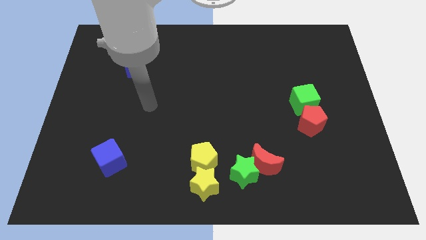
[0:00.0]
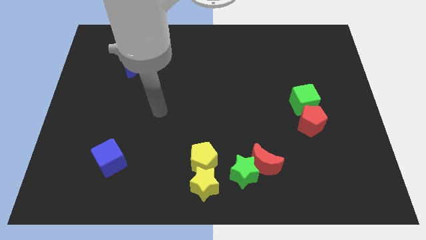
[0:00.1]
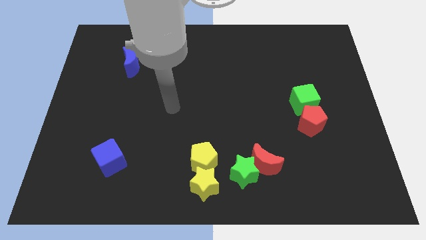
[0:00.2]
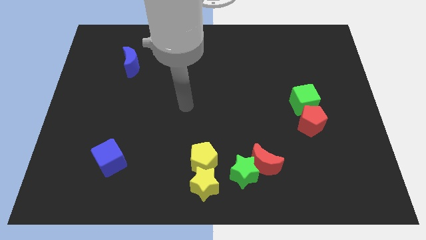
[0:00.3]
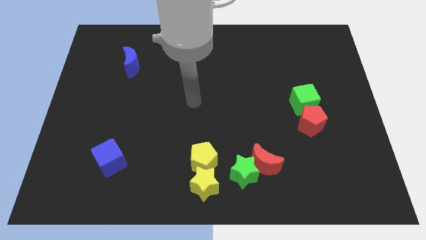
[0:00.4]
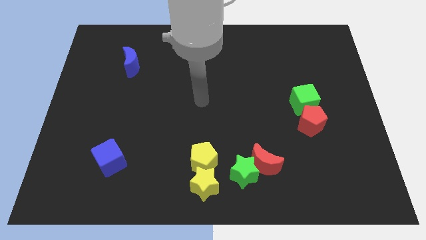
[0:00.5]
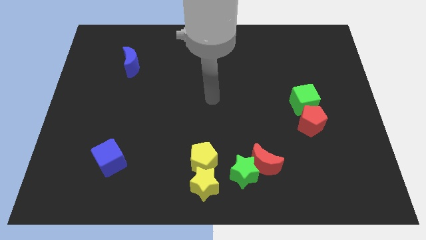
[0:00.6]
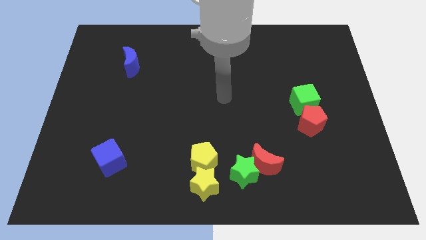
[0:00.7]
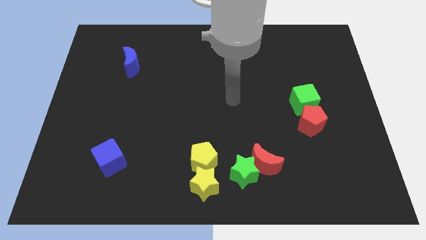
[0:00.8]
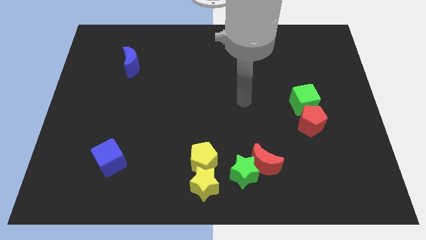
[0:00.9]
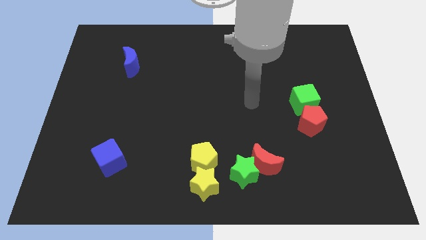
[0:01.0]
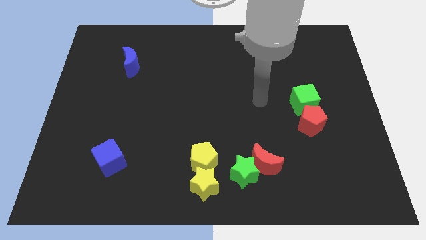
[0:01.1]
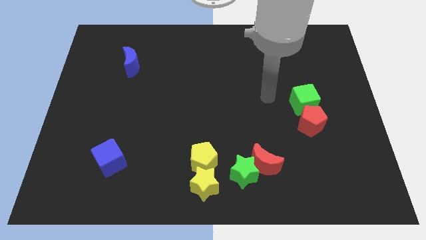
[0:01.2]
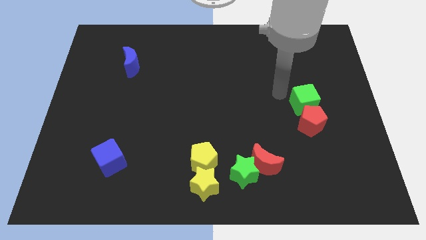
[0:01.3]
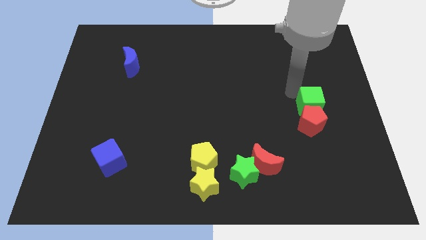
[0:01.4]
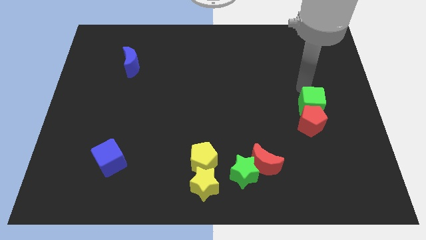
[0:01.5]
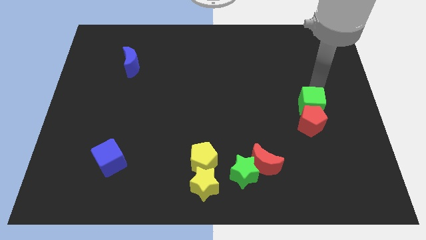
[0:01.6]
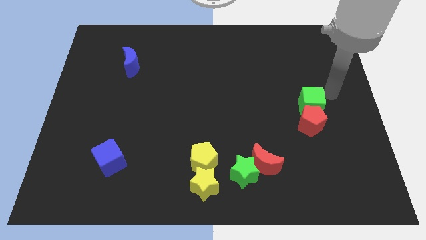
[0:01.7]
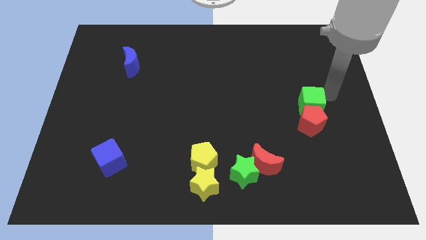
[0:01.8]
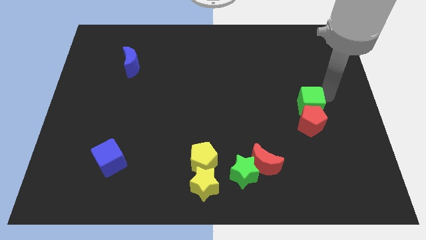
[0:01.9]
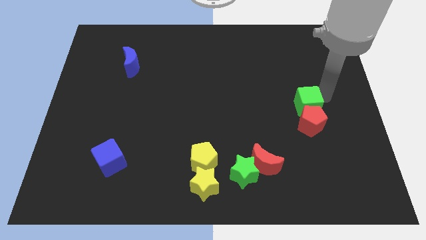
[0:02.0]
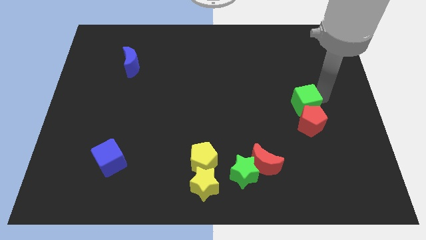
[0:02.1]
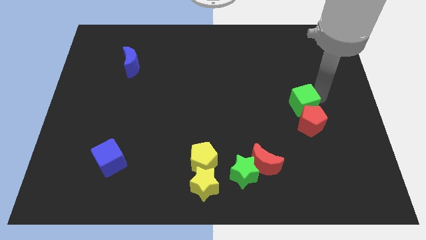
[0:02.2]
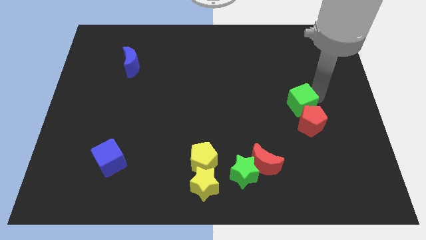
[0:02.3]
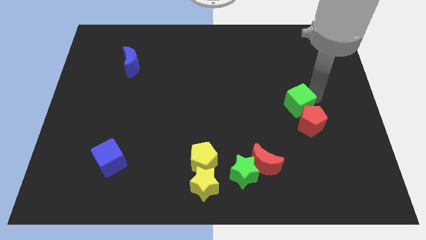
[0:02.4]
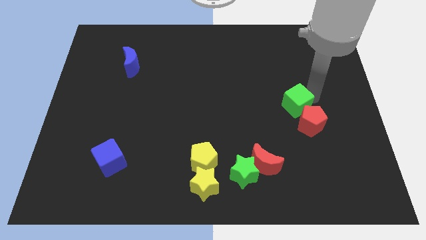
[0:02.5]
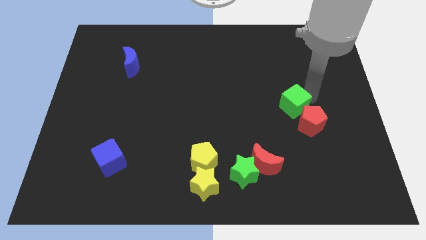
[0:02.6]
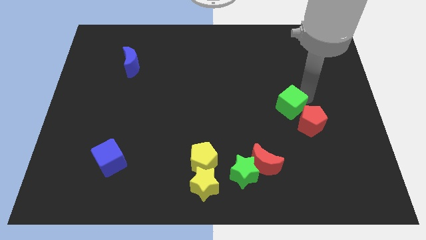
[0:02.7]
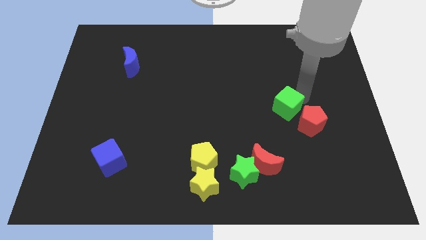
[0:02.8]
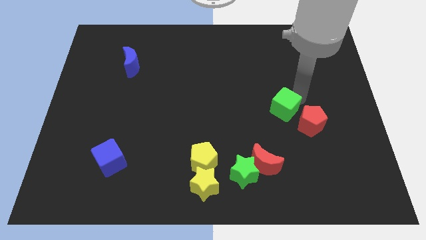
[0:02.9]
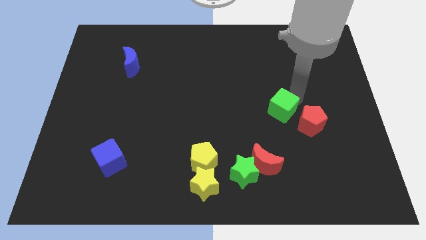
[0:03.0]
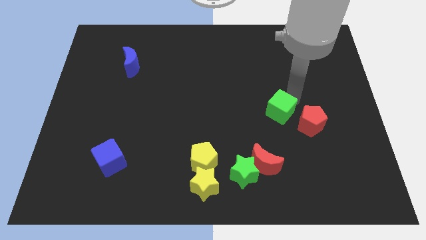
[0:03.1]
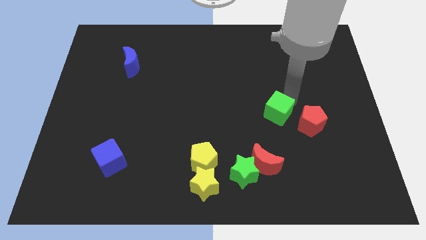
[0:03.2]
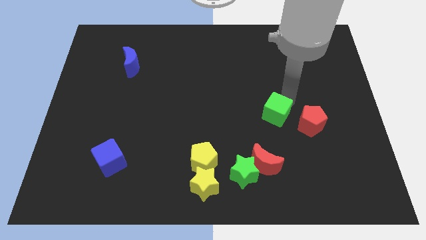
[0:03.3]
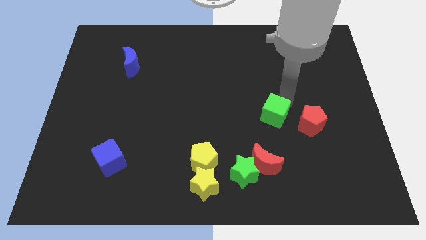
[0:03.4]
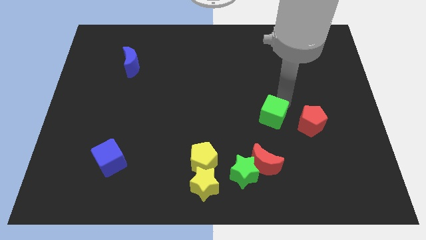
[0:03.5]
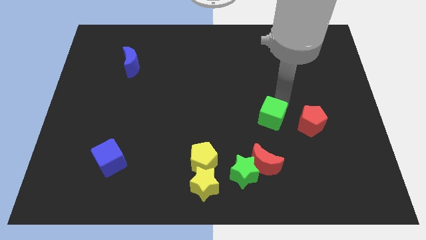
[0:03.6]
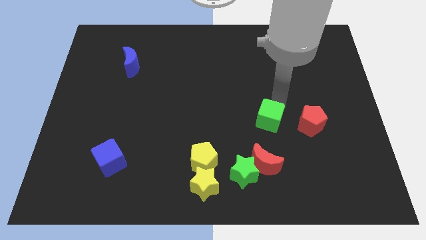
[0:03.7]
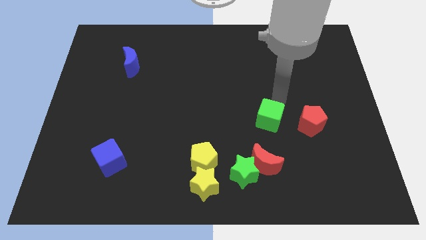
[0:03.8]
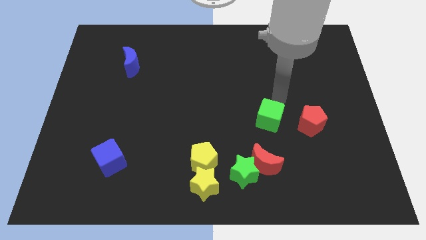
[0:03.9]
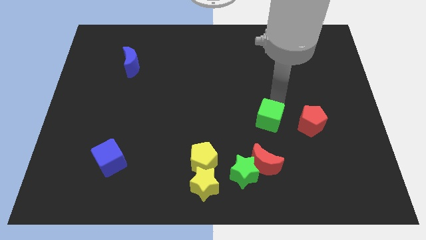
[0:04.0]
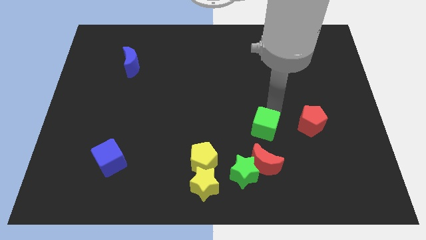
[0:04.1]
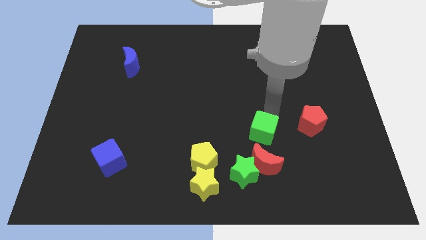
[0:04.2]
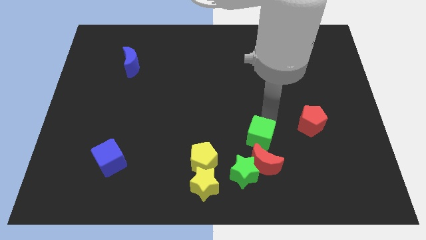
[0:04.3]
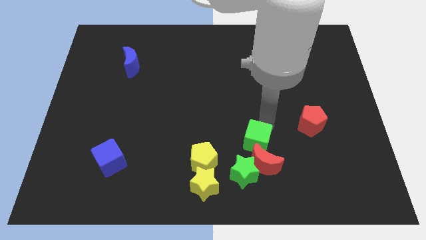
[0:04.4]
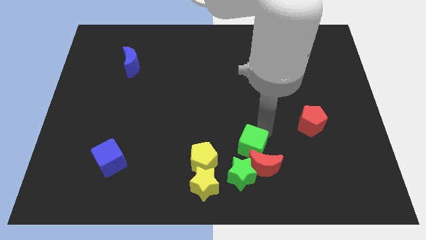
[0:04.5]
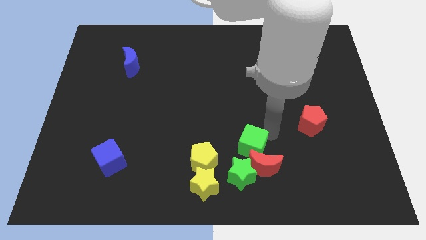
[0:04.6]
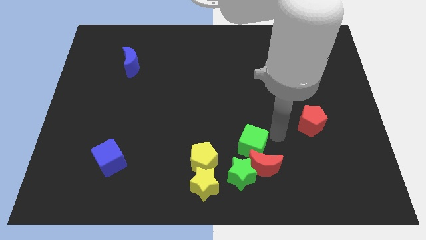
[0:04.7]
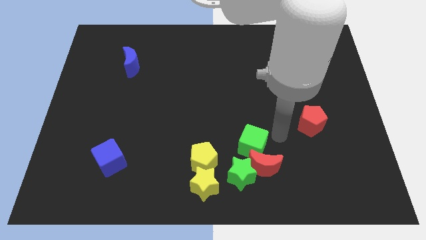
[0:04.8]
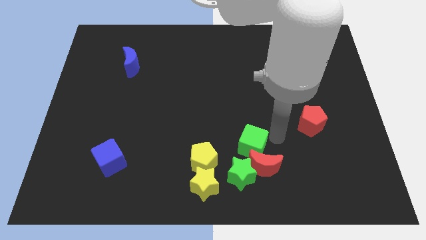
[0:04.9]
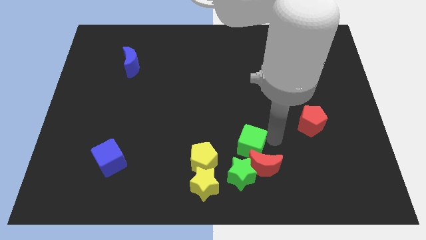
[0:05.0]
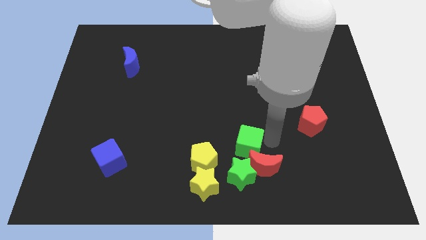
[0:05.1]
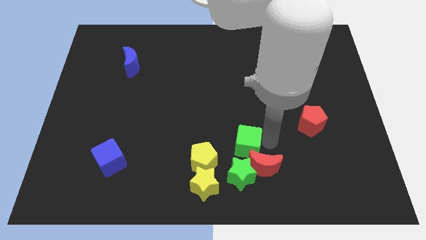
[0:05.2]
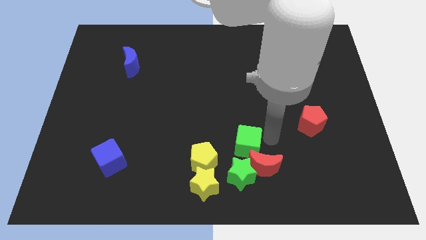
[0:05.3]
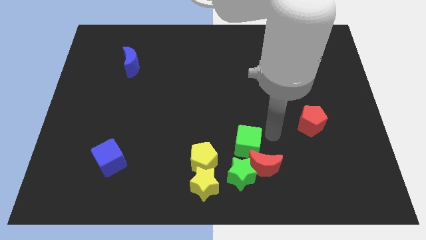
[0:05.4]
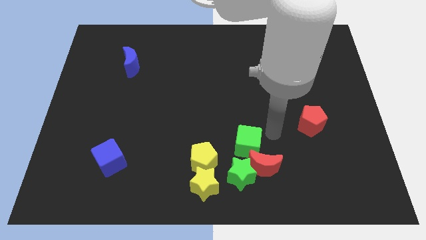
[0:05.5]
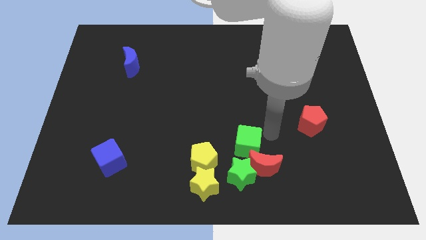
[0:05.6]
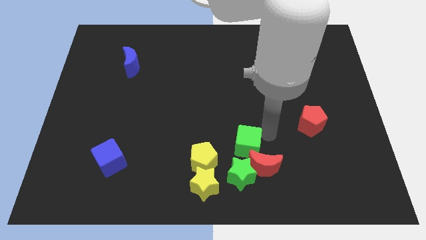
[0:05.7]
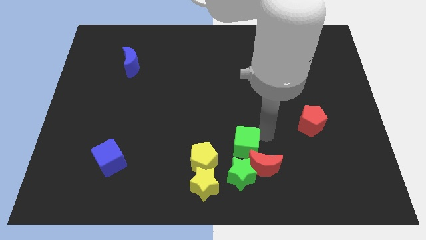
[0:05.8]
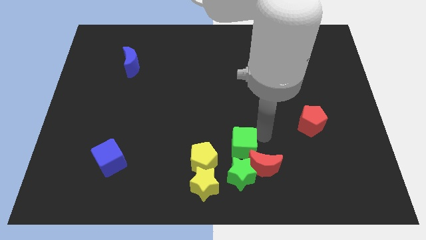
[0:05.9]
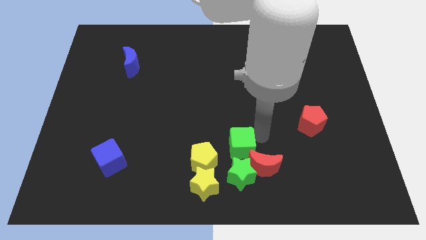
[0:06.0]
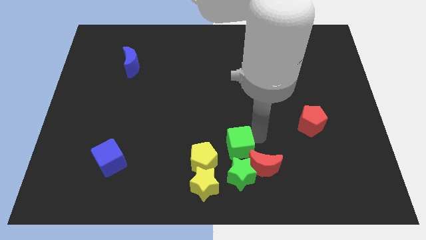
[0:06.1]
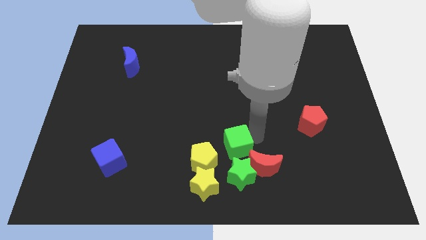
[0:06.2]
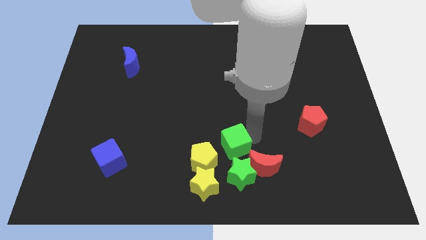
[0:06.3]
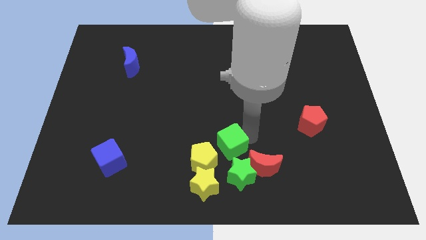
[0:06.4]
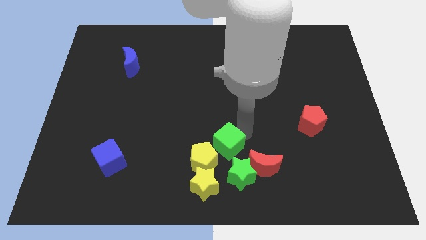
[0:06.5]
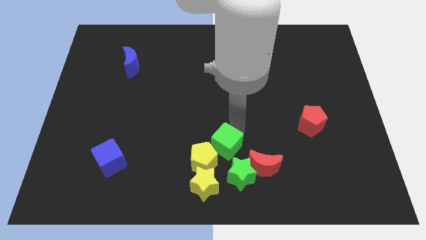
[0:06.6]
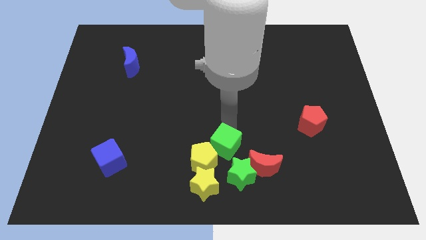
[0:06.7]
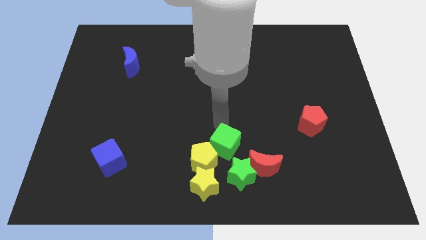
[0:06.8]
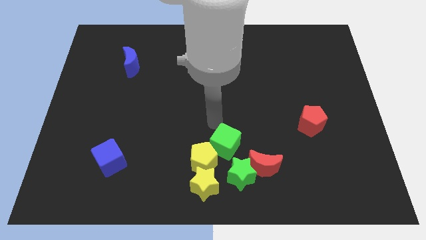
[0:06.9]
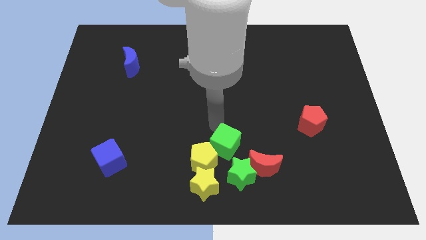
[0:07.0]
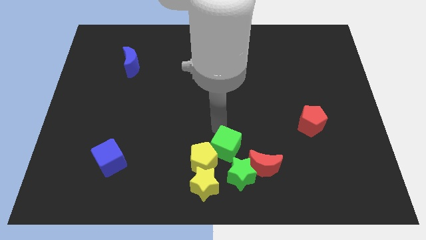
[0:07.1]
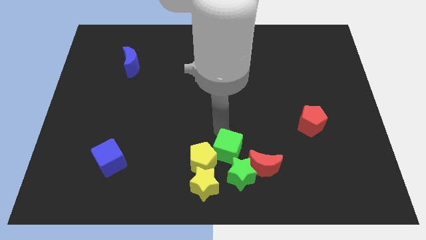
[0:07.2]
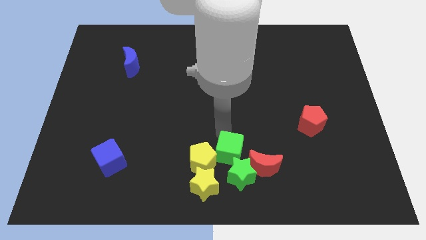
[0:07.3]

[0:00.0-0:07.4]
put the green cube to the green star
